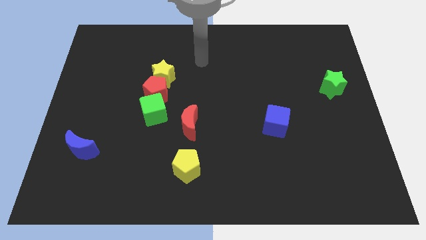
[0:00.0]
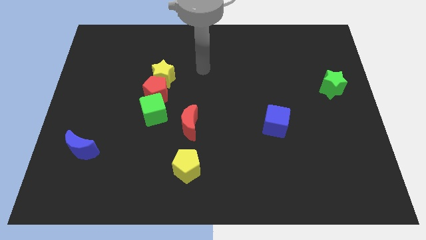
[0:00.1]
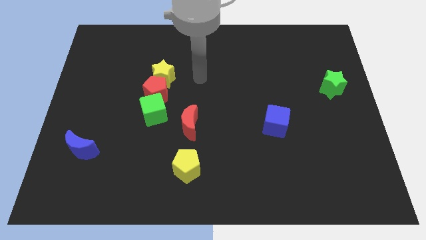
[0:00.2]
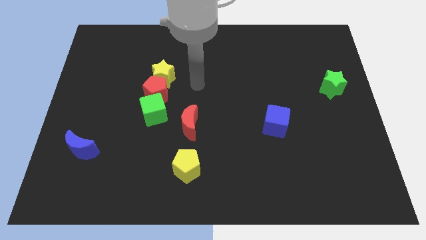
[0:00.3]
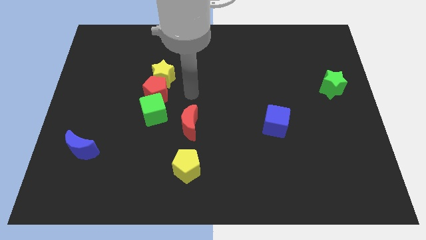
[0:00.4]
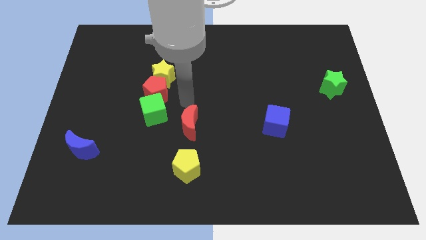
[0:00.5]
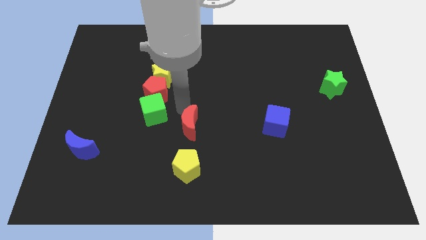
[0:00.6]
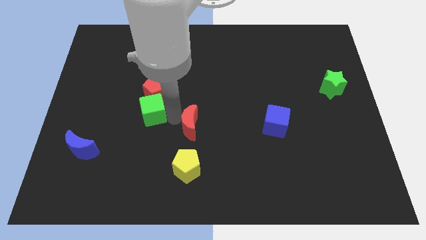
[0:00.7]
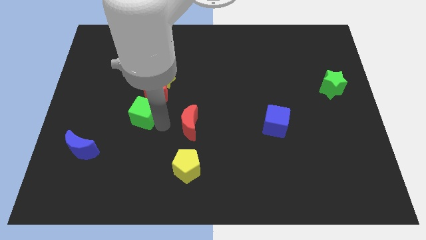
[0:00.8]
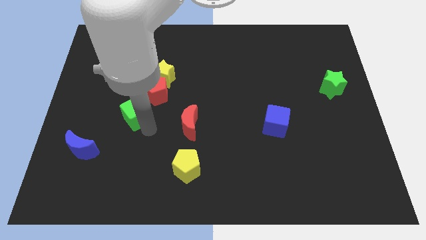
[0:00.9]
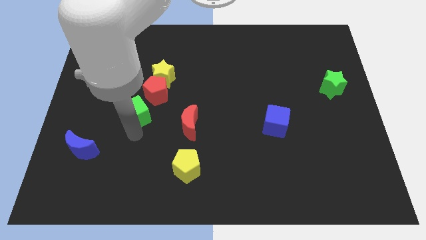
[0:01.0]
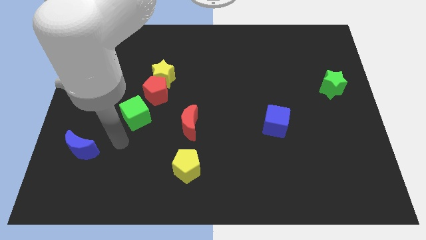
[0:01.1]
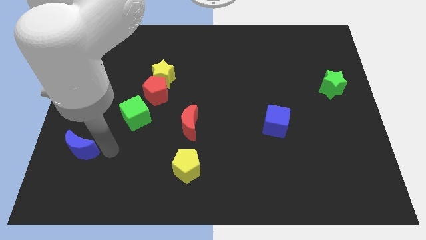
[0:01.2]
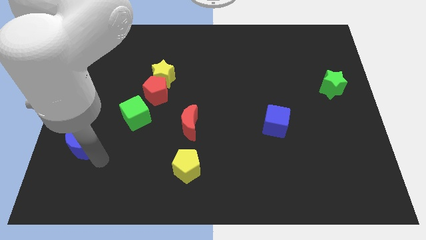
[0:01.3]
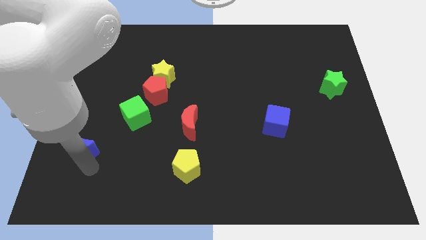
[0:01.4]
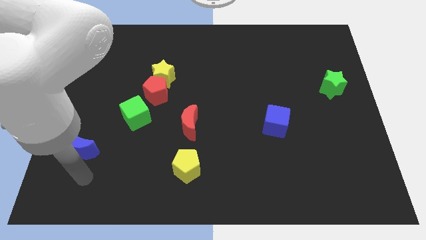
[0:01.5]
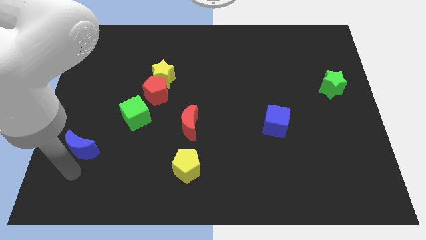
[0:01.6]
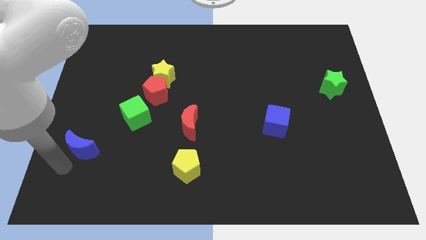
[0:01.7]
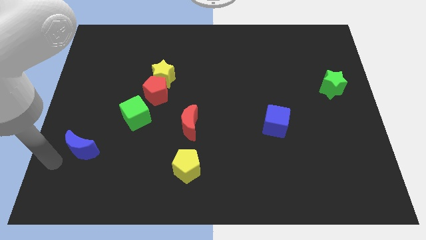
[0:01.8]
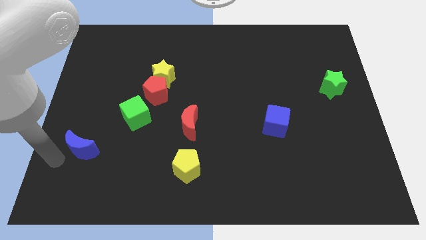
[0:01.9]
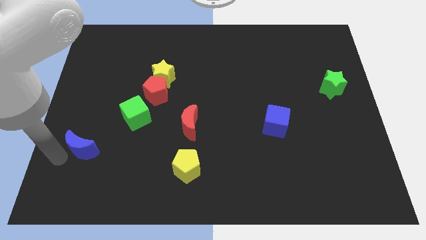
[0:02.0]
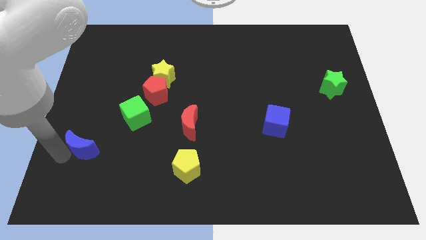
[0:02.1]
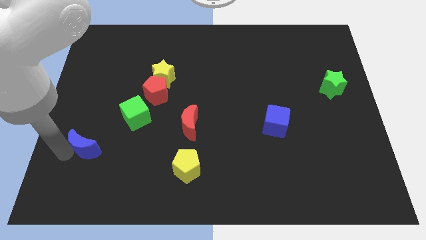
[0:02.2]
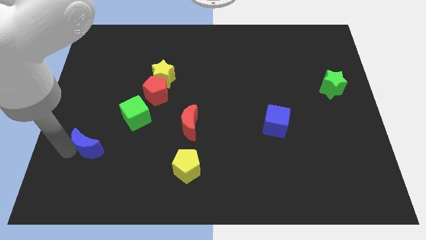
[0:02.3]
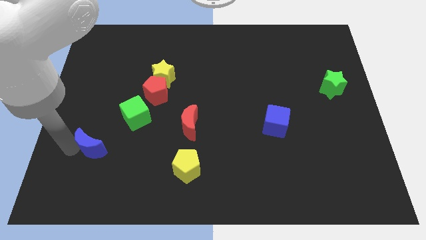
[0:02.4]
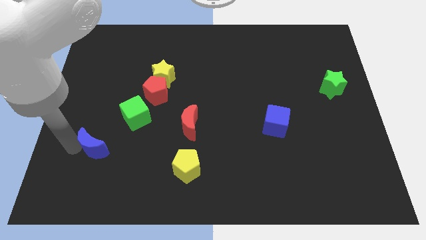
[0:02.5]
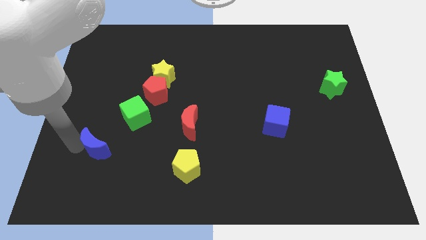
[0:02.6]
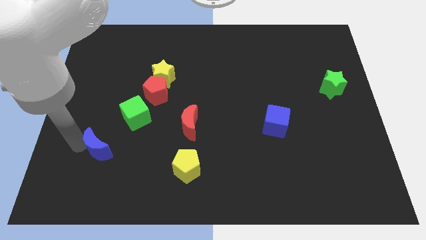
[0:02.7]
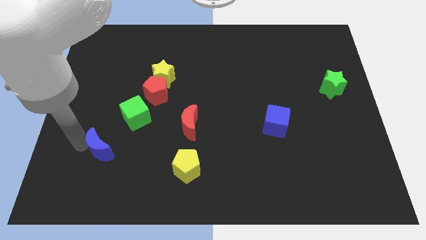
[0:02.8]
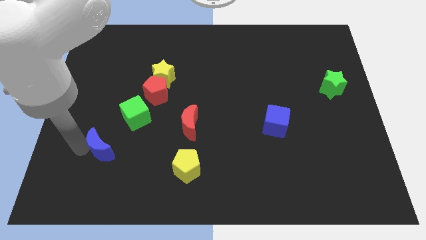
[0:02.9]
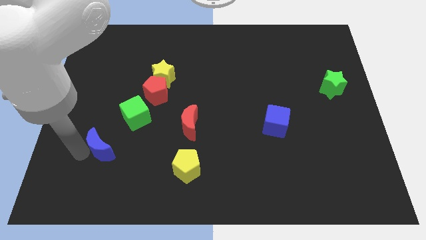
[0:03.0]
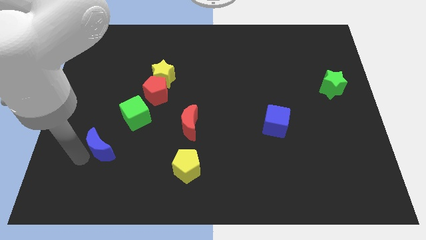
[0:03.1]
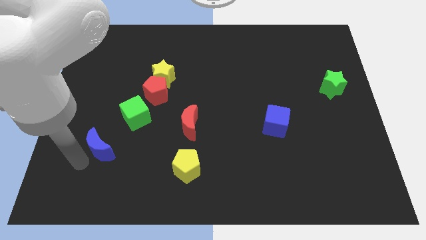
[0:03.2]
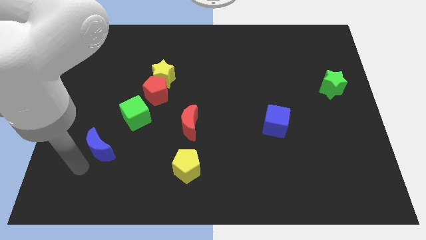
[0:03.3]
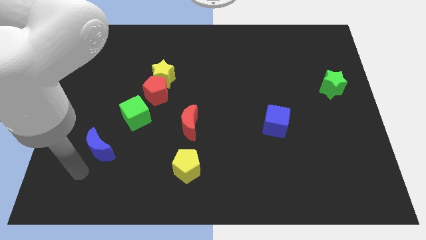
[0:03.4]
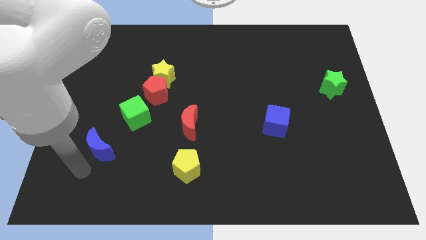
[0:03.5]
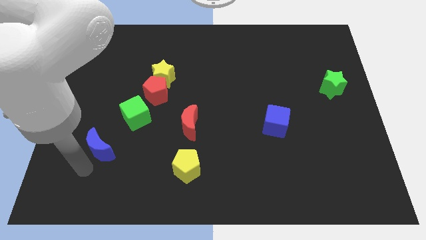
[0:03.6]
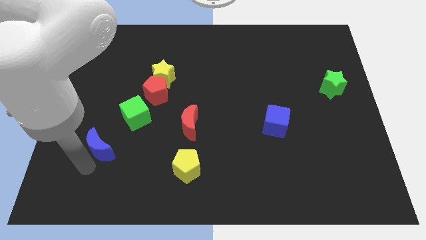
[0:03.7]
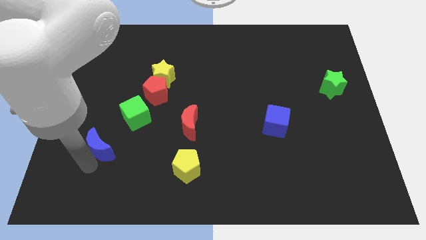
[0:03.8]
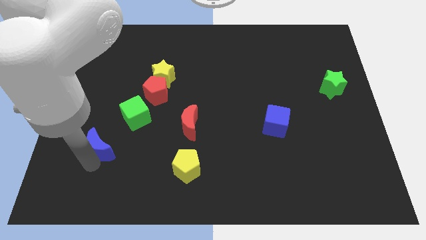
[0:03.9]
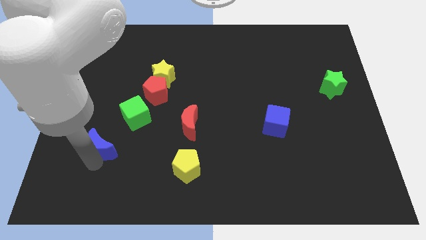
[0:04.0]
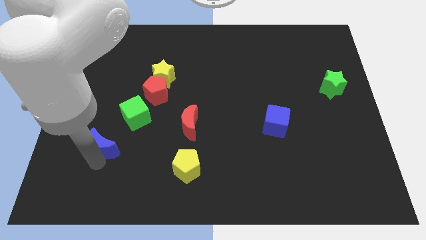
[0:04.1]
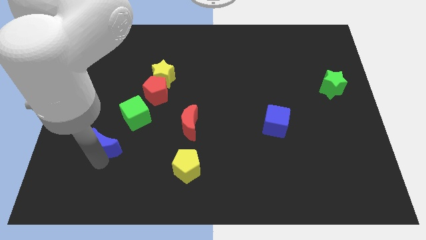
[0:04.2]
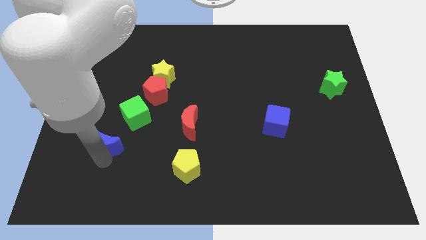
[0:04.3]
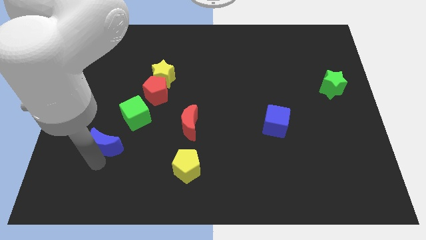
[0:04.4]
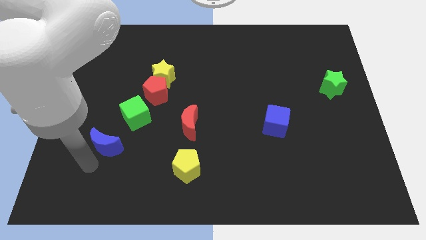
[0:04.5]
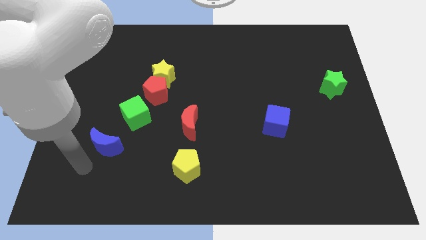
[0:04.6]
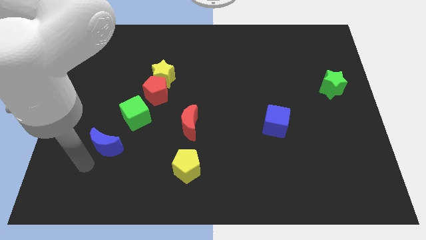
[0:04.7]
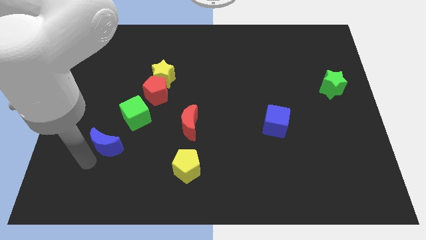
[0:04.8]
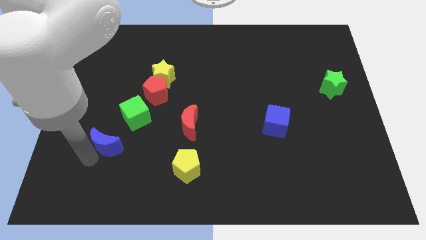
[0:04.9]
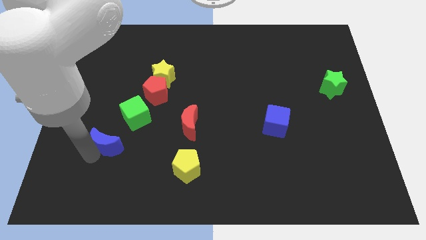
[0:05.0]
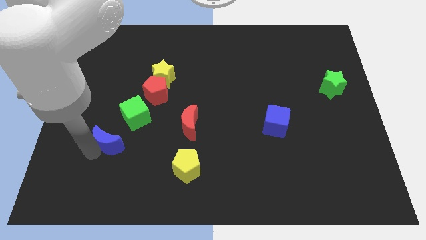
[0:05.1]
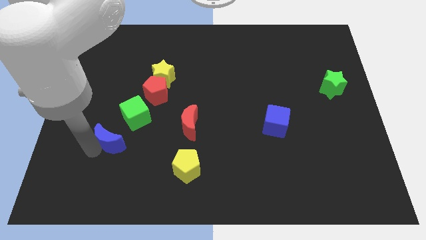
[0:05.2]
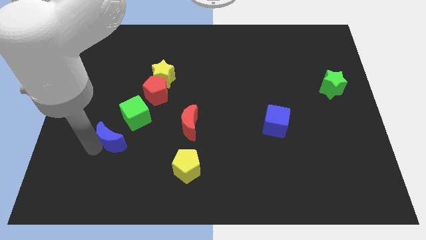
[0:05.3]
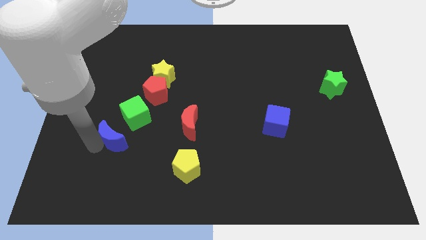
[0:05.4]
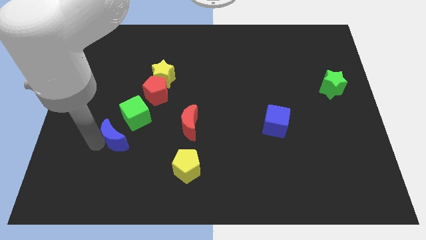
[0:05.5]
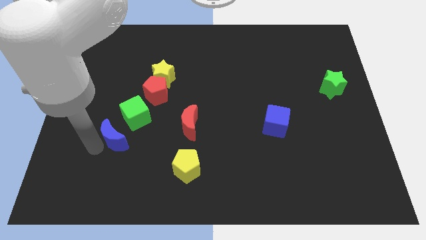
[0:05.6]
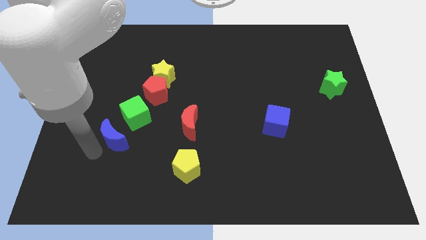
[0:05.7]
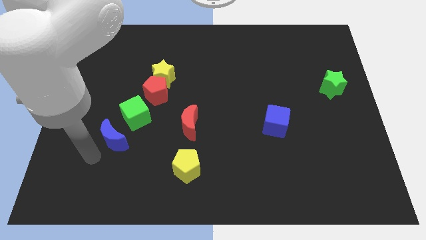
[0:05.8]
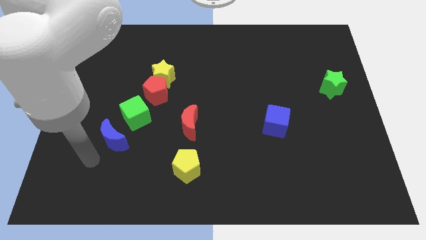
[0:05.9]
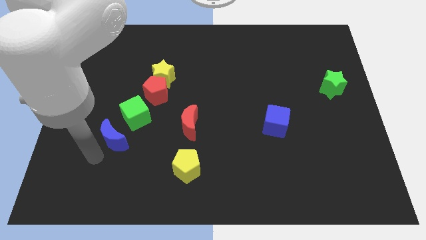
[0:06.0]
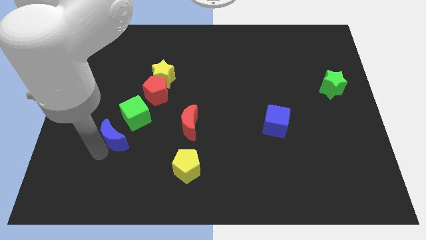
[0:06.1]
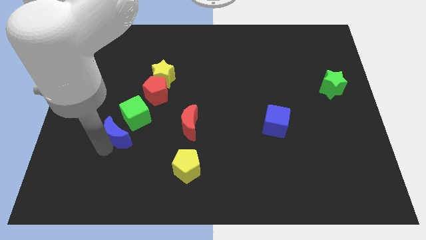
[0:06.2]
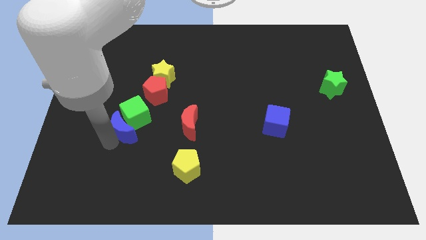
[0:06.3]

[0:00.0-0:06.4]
slide the blue moon towards the green cube

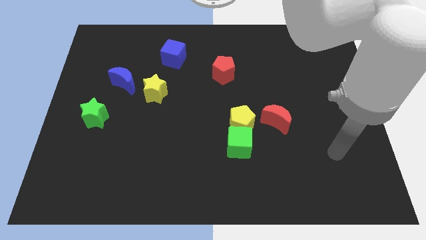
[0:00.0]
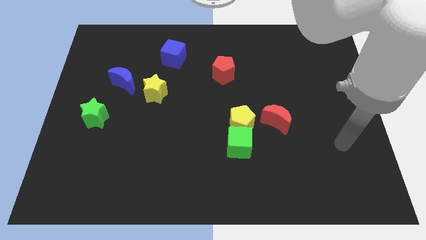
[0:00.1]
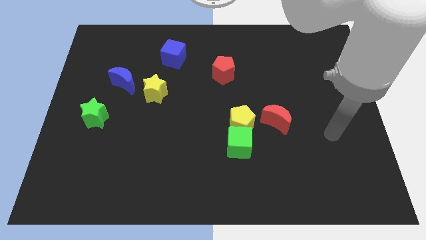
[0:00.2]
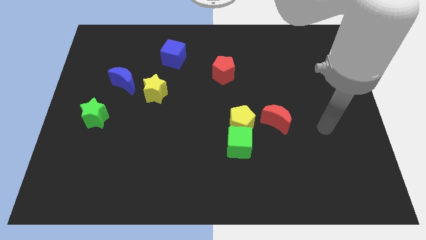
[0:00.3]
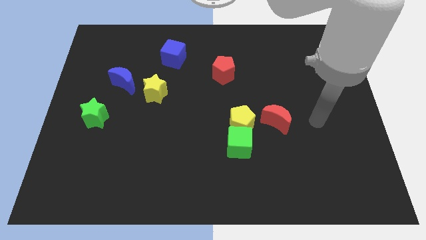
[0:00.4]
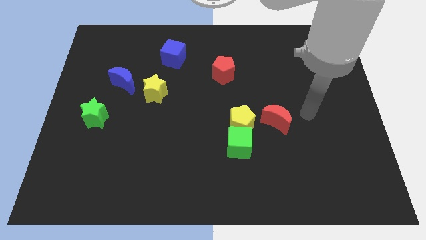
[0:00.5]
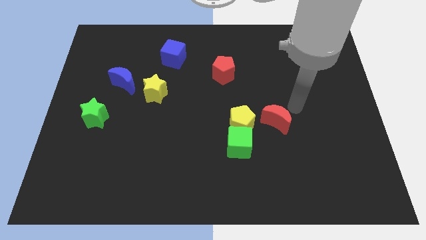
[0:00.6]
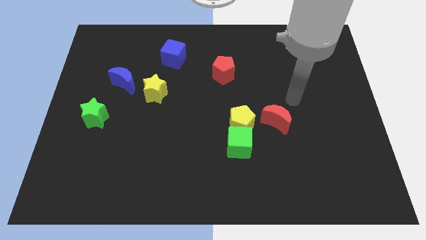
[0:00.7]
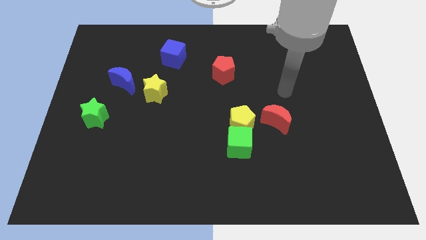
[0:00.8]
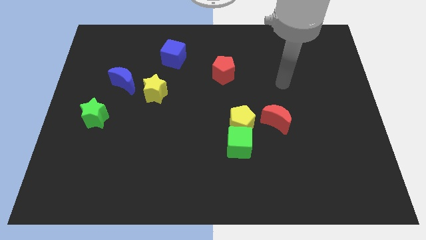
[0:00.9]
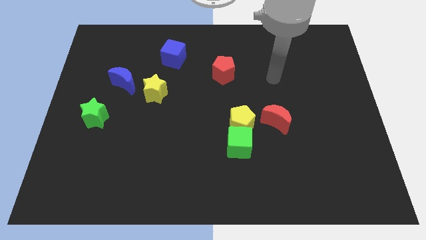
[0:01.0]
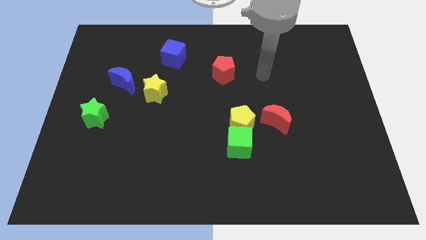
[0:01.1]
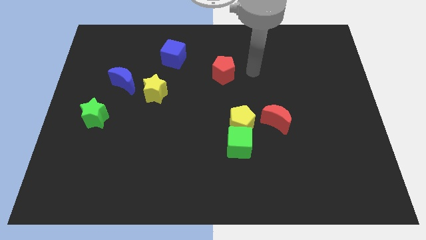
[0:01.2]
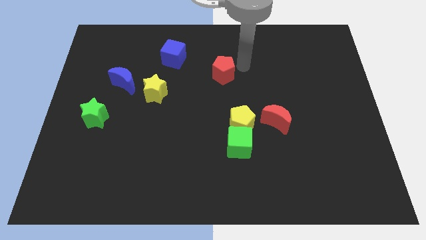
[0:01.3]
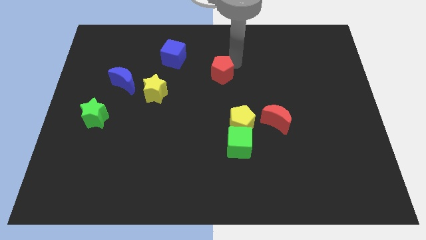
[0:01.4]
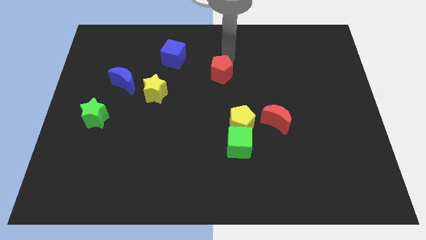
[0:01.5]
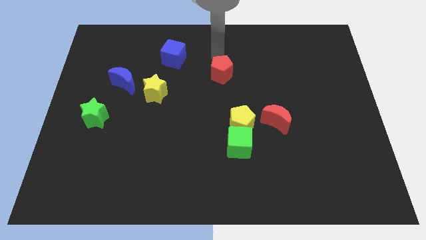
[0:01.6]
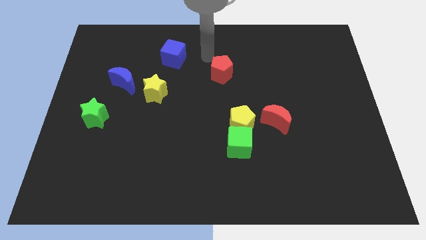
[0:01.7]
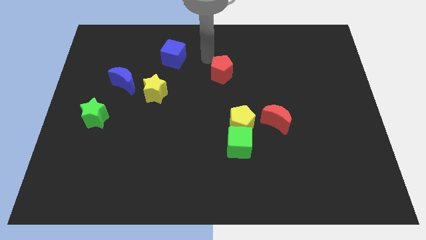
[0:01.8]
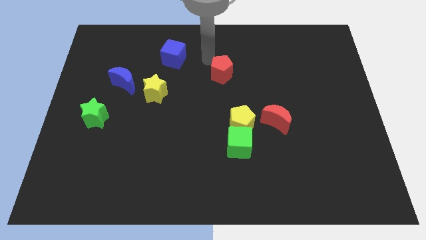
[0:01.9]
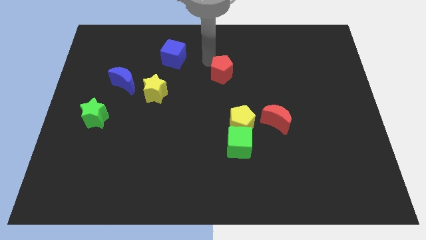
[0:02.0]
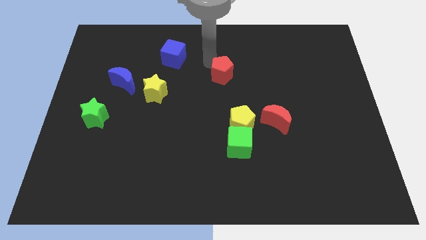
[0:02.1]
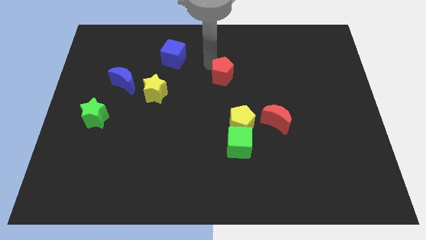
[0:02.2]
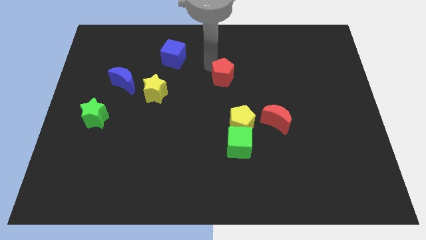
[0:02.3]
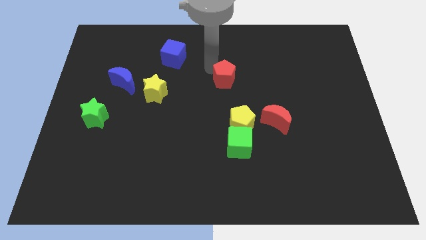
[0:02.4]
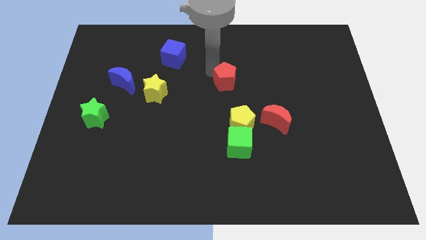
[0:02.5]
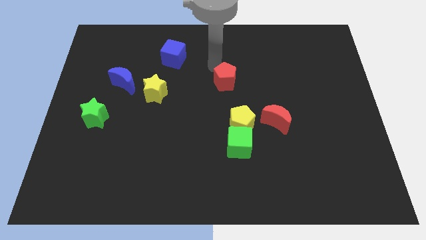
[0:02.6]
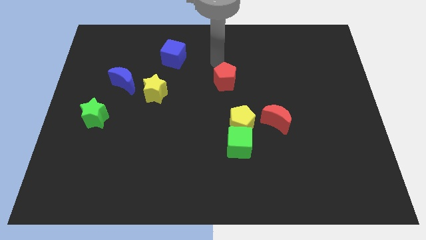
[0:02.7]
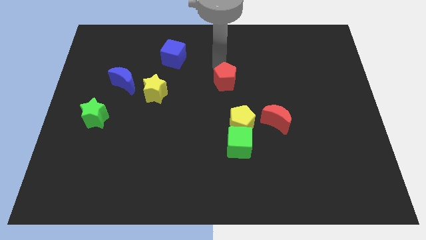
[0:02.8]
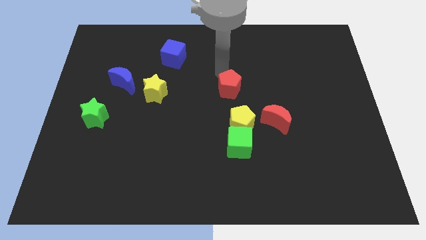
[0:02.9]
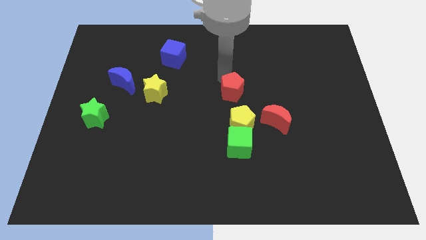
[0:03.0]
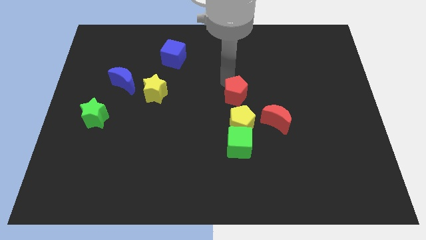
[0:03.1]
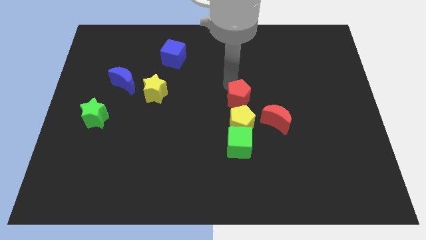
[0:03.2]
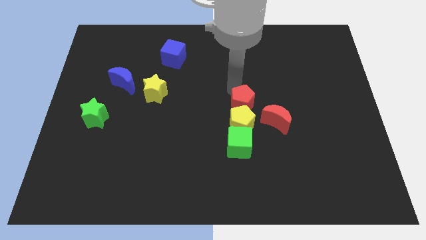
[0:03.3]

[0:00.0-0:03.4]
push the red pentagon next to the yellow pentagon
